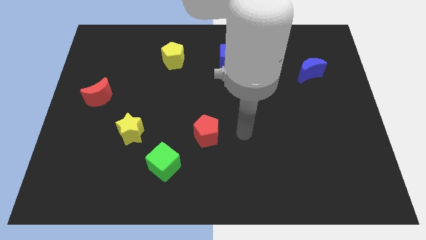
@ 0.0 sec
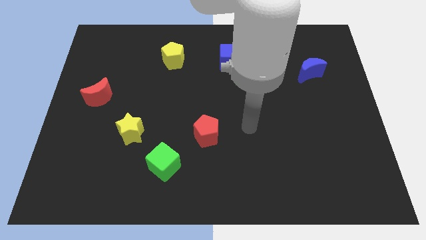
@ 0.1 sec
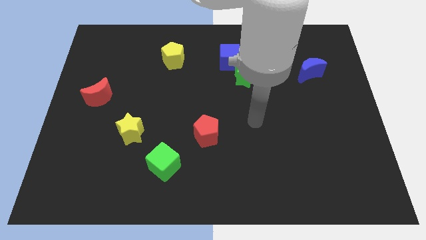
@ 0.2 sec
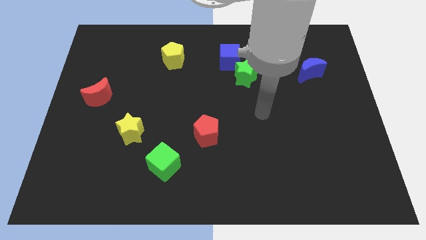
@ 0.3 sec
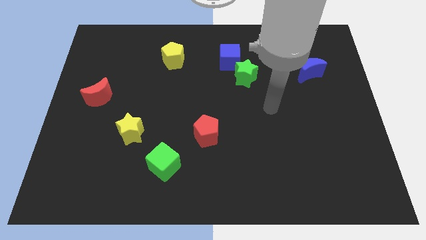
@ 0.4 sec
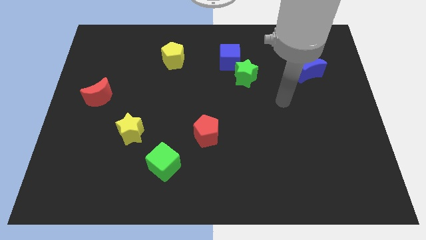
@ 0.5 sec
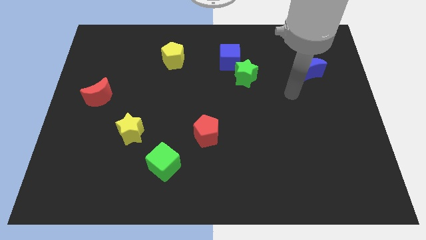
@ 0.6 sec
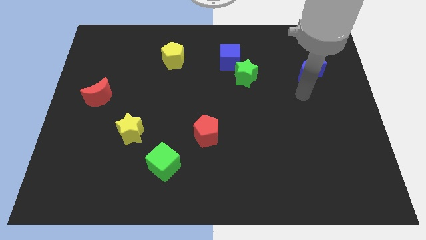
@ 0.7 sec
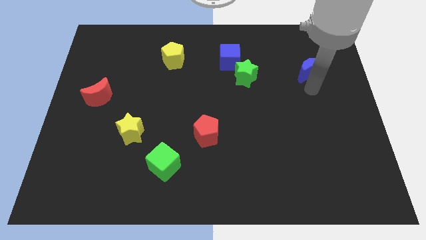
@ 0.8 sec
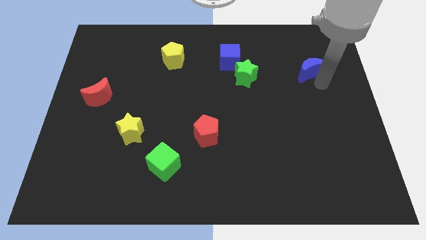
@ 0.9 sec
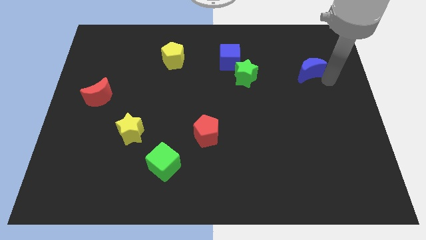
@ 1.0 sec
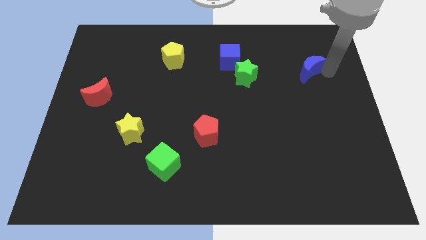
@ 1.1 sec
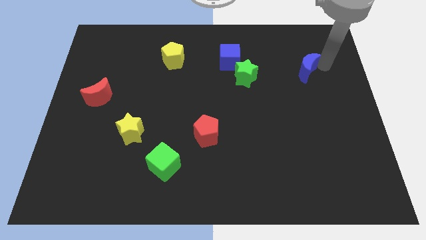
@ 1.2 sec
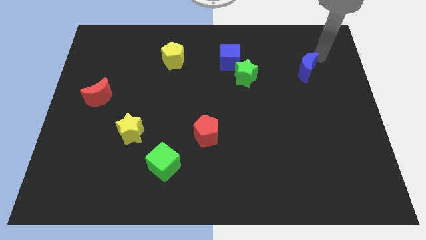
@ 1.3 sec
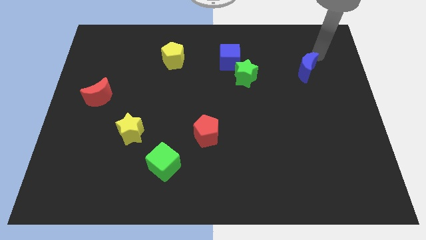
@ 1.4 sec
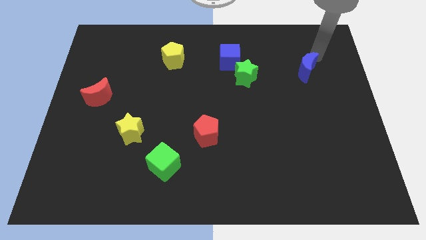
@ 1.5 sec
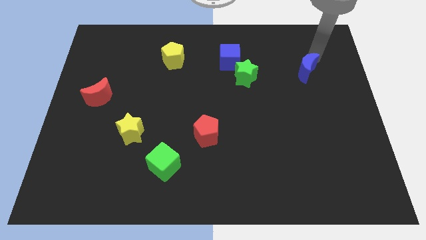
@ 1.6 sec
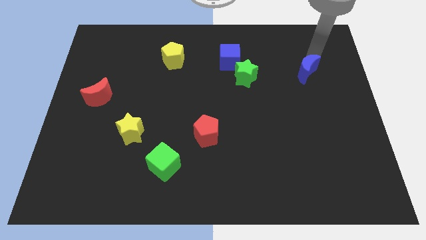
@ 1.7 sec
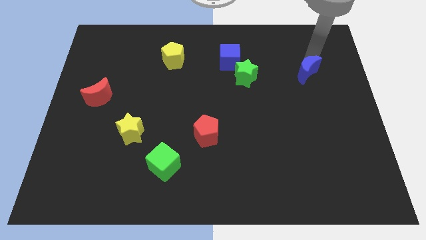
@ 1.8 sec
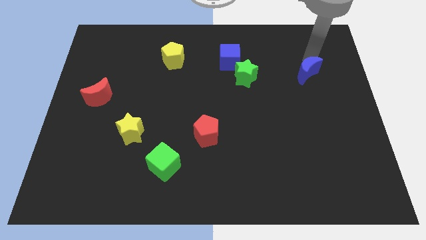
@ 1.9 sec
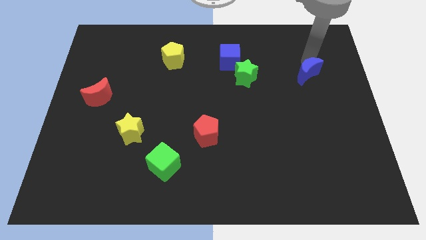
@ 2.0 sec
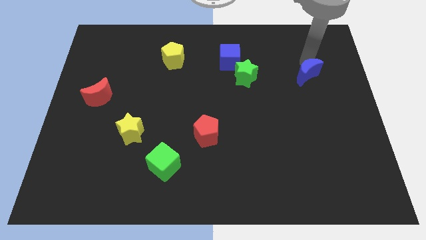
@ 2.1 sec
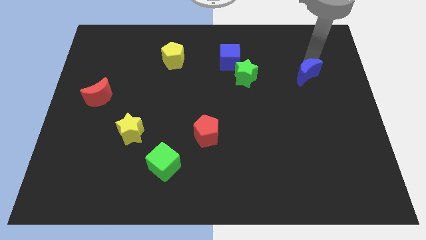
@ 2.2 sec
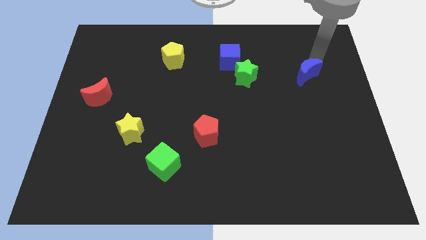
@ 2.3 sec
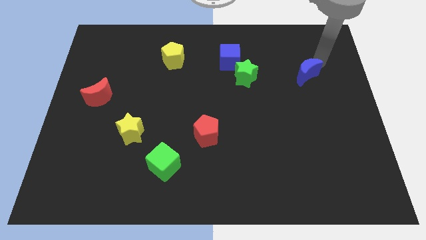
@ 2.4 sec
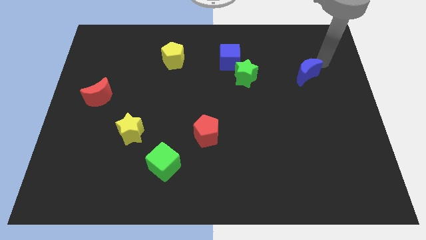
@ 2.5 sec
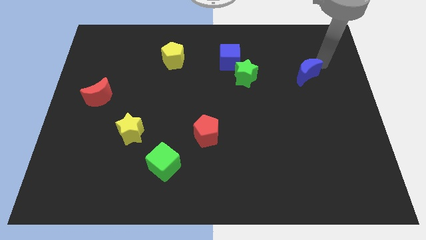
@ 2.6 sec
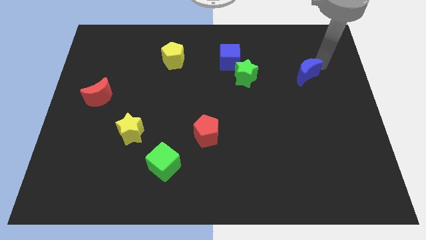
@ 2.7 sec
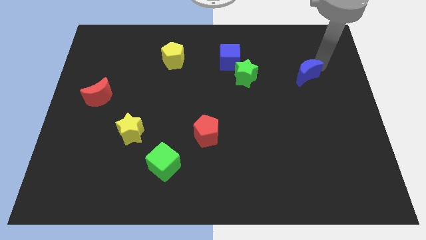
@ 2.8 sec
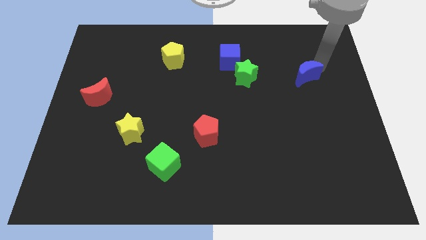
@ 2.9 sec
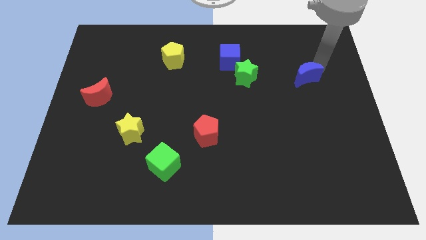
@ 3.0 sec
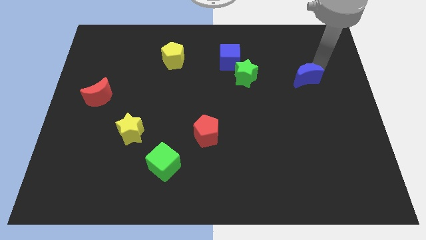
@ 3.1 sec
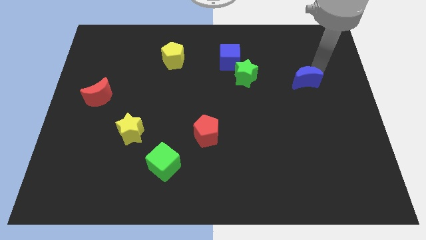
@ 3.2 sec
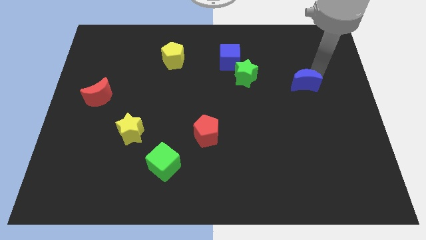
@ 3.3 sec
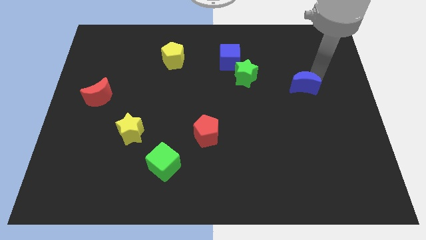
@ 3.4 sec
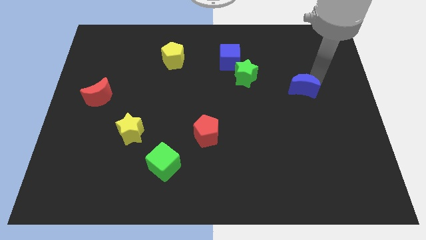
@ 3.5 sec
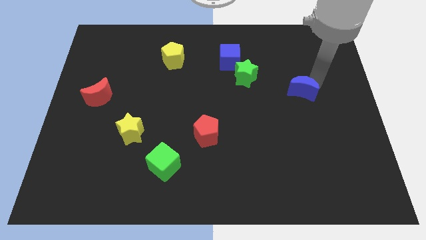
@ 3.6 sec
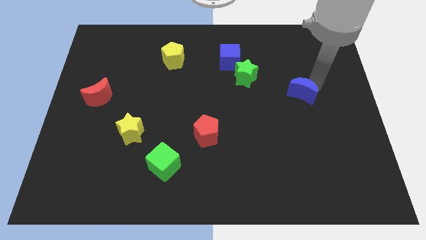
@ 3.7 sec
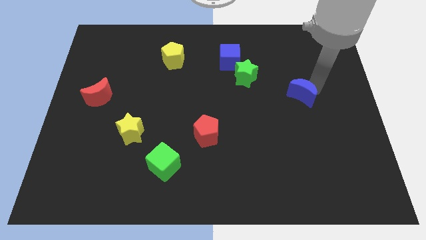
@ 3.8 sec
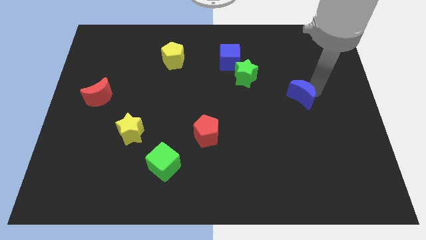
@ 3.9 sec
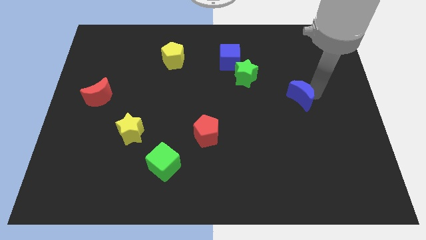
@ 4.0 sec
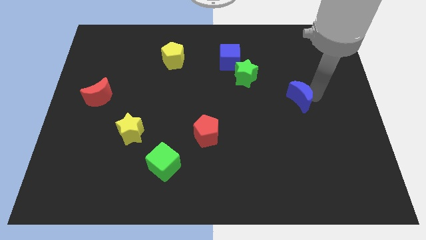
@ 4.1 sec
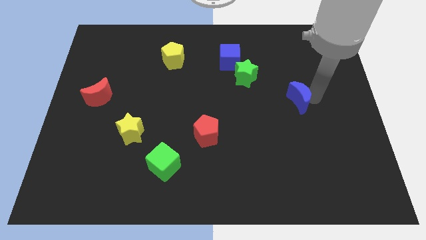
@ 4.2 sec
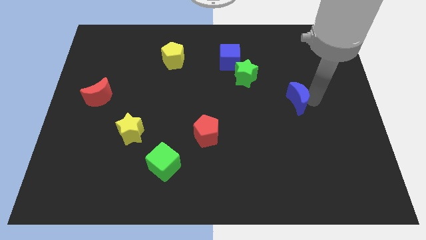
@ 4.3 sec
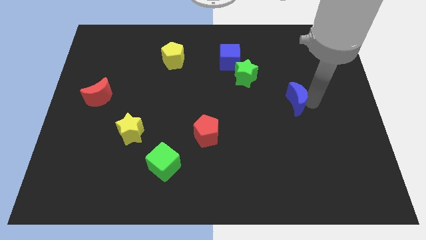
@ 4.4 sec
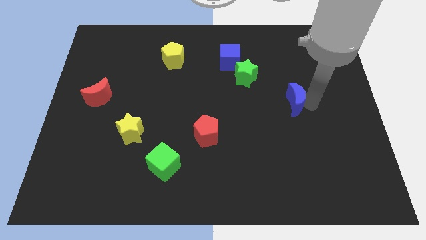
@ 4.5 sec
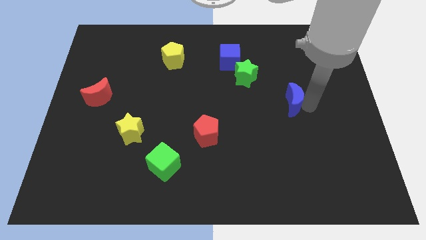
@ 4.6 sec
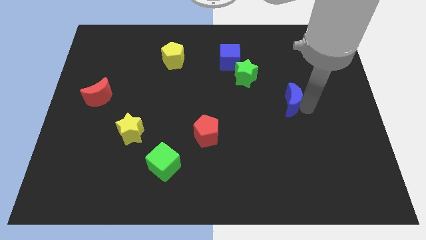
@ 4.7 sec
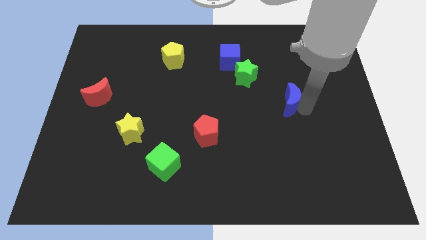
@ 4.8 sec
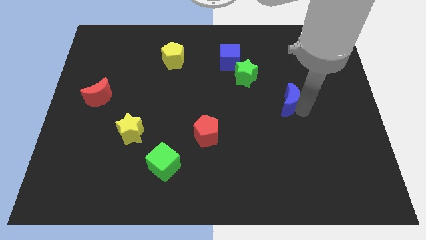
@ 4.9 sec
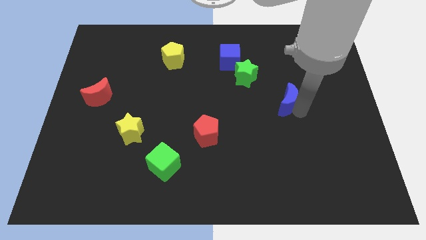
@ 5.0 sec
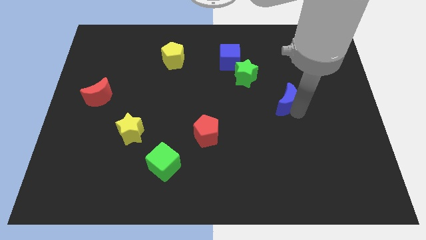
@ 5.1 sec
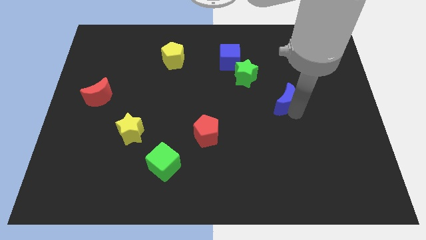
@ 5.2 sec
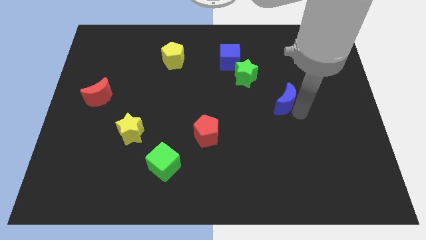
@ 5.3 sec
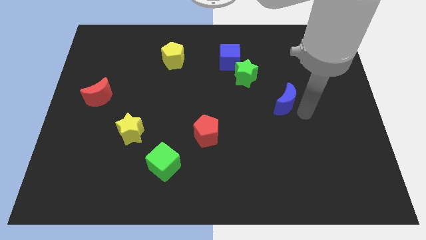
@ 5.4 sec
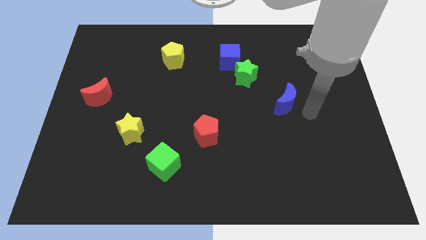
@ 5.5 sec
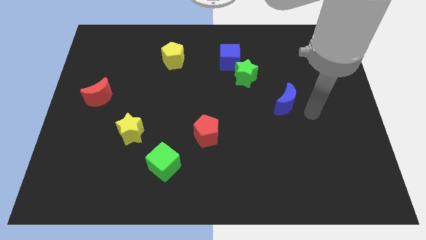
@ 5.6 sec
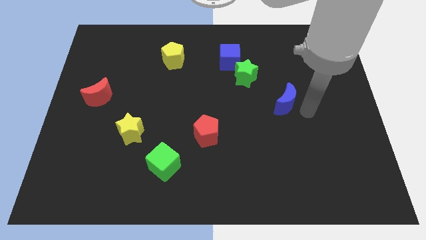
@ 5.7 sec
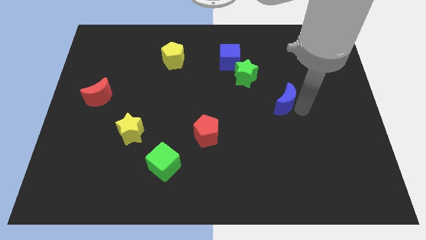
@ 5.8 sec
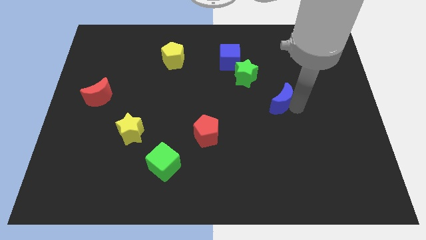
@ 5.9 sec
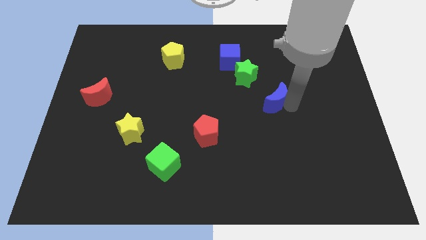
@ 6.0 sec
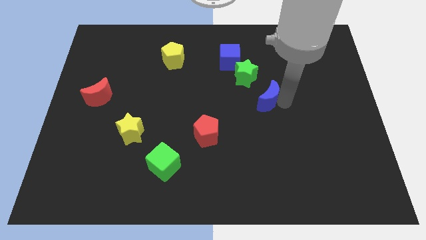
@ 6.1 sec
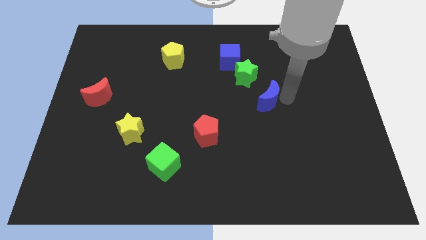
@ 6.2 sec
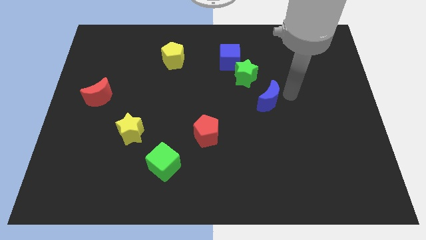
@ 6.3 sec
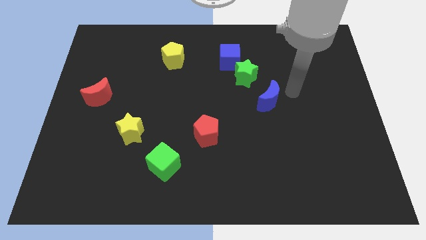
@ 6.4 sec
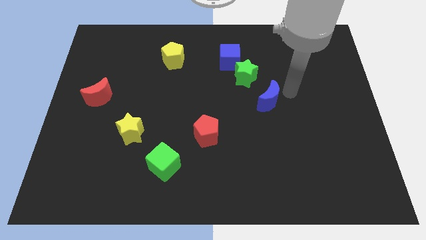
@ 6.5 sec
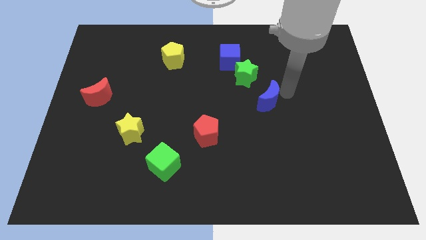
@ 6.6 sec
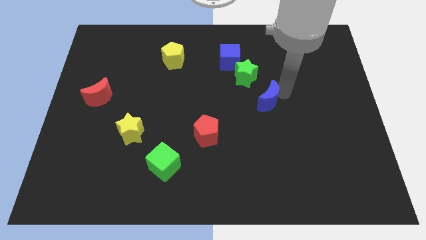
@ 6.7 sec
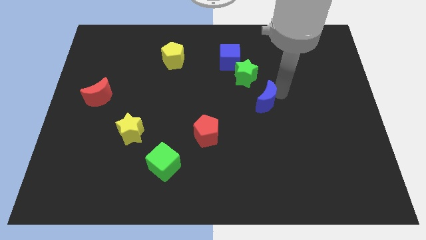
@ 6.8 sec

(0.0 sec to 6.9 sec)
move the blue moon to the bottom side of the green star
